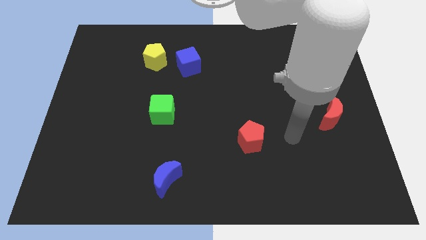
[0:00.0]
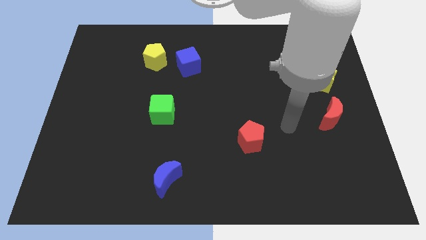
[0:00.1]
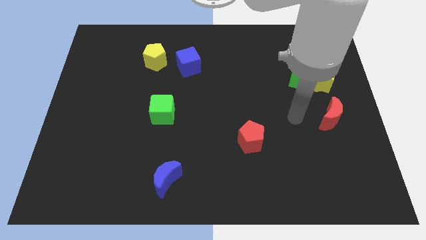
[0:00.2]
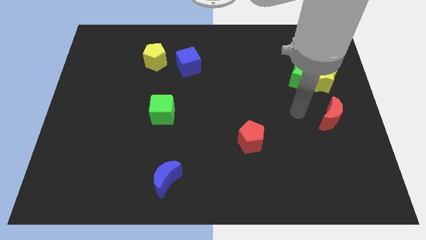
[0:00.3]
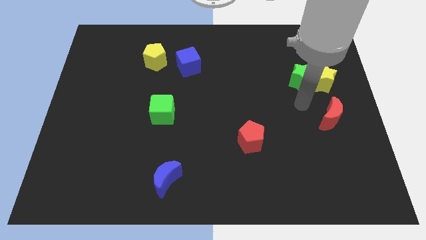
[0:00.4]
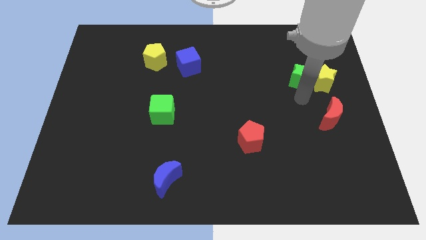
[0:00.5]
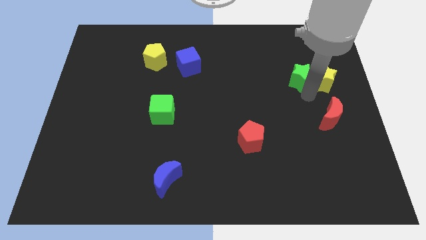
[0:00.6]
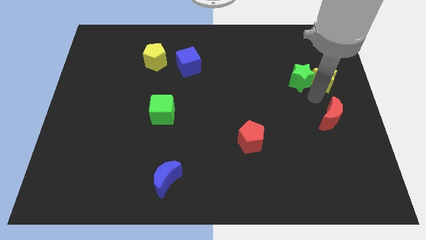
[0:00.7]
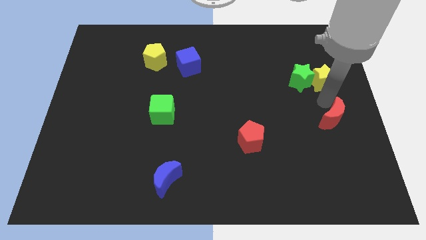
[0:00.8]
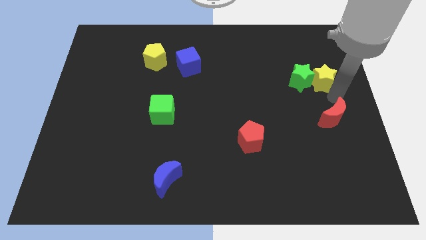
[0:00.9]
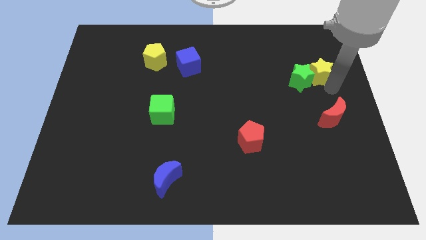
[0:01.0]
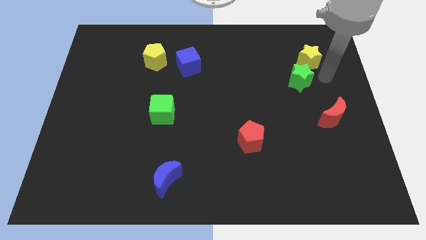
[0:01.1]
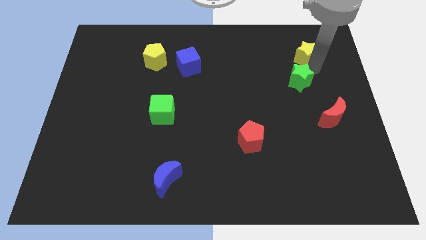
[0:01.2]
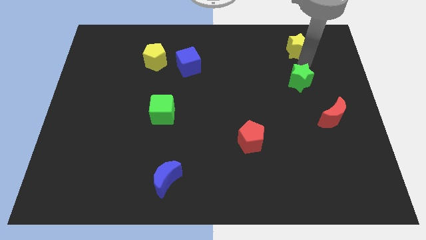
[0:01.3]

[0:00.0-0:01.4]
separate the green star from the yellow star

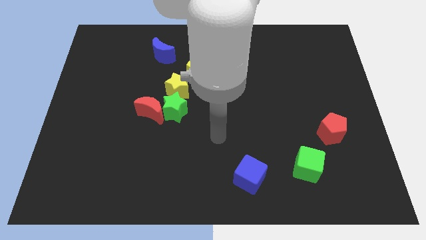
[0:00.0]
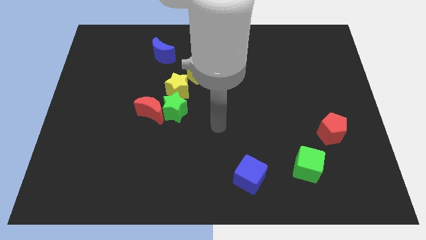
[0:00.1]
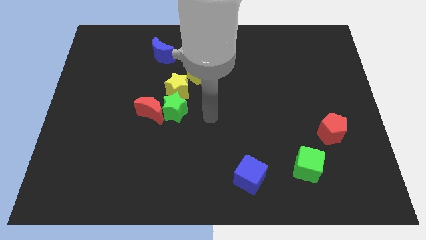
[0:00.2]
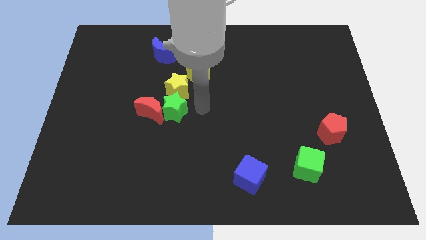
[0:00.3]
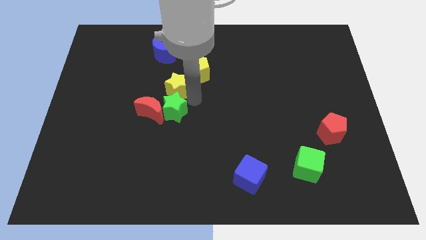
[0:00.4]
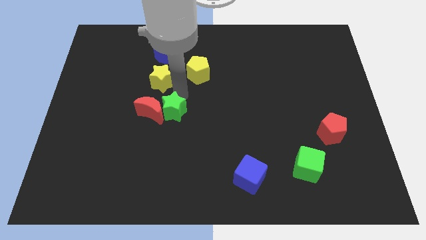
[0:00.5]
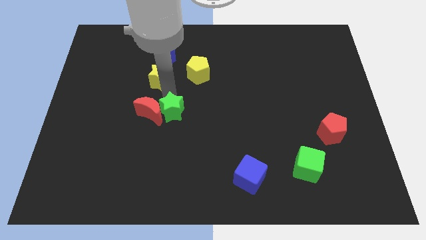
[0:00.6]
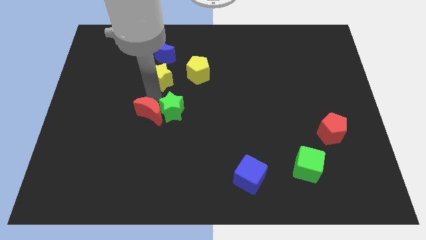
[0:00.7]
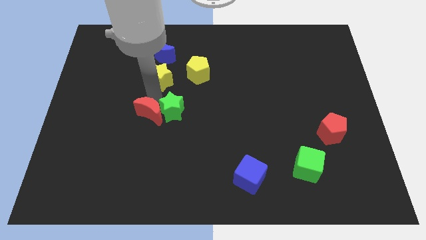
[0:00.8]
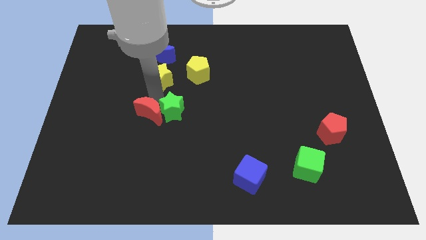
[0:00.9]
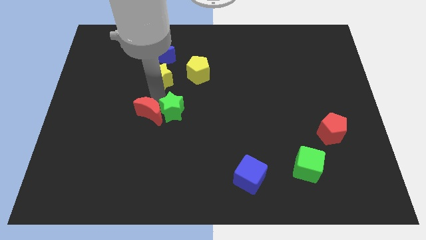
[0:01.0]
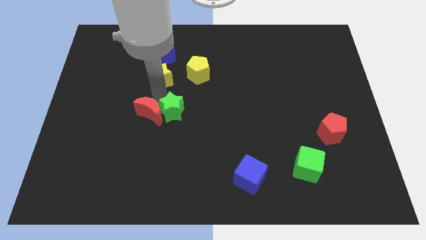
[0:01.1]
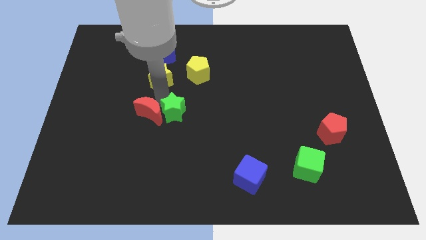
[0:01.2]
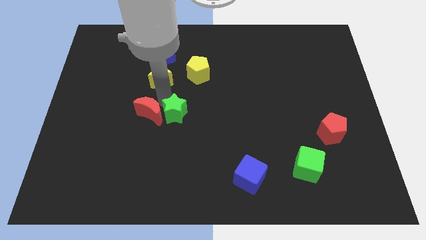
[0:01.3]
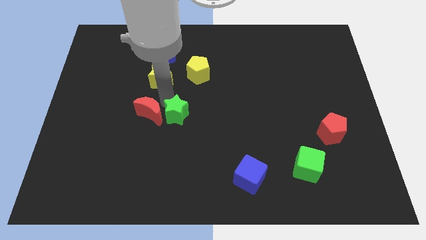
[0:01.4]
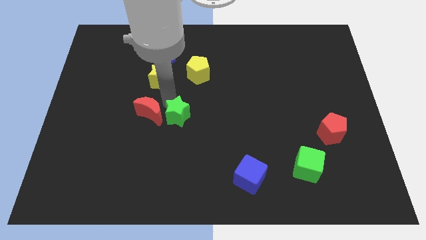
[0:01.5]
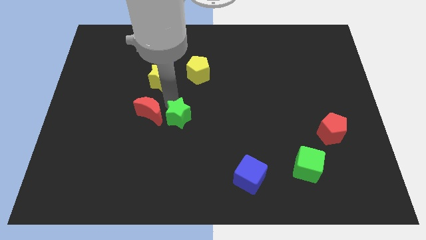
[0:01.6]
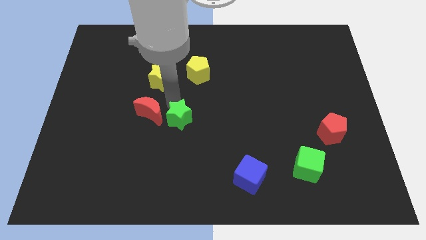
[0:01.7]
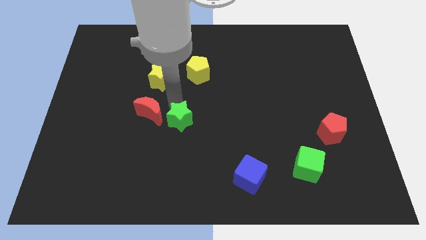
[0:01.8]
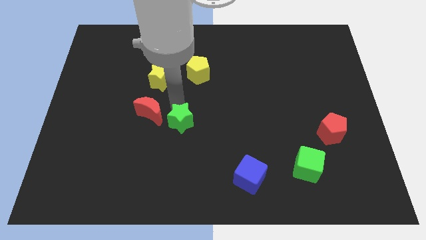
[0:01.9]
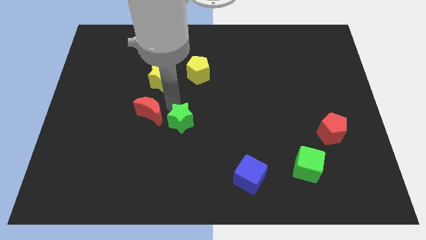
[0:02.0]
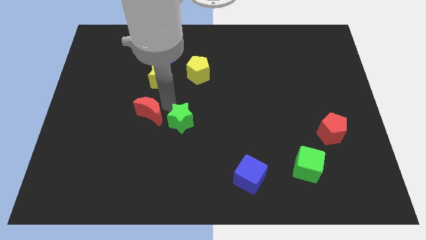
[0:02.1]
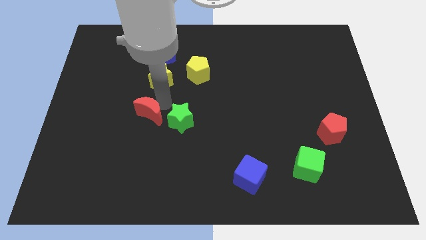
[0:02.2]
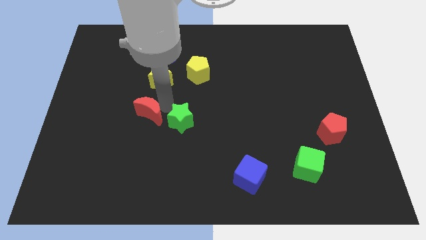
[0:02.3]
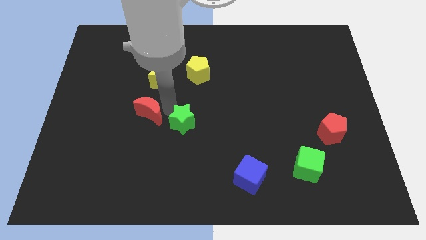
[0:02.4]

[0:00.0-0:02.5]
pull the green star apart from the red moon and yellow star

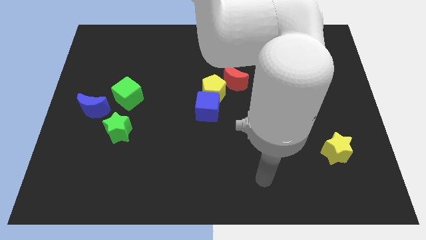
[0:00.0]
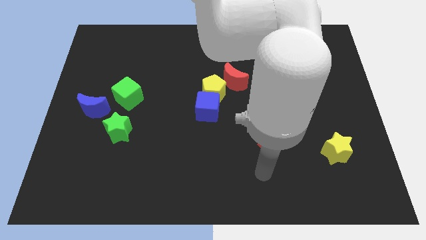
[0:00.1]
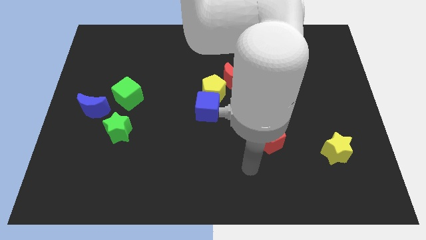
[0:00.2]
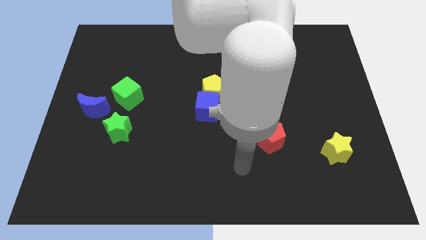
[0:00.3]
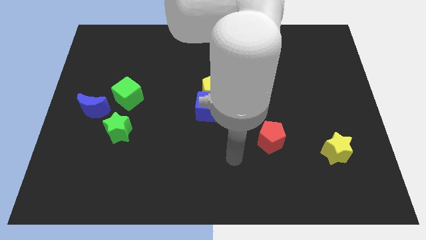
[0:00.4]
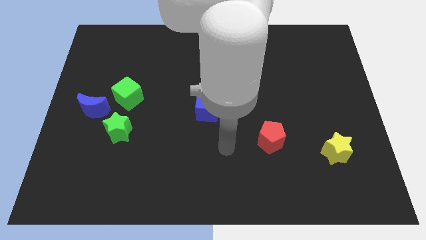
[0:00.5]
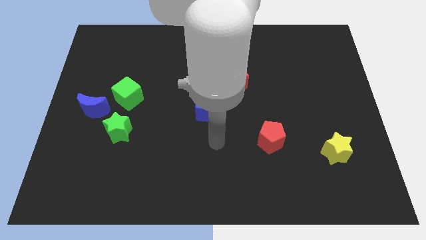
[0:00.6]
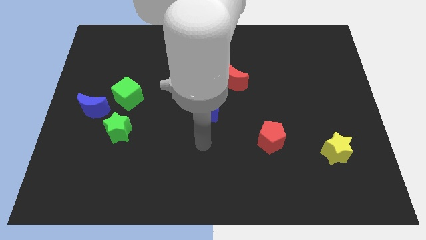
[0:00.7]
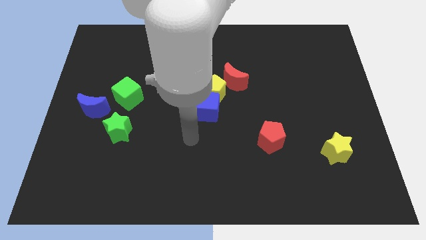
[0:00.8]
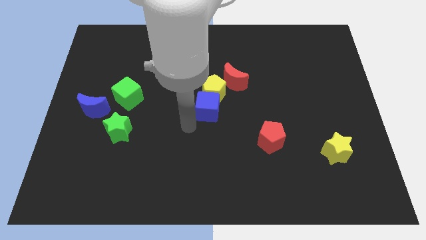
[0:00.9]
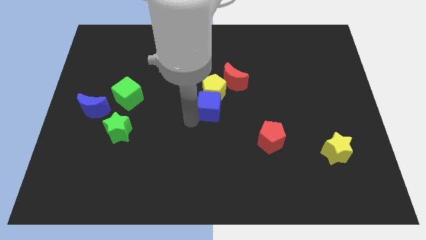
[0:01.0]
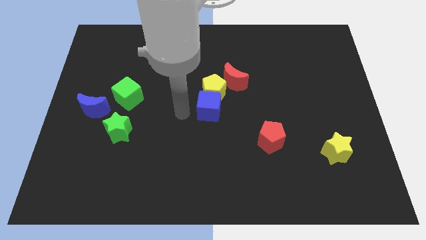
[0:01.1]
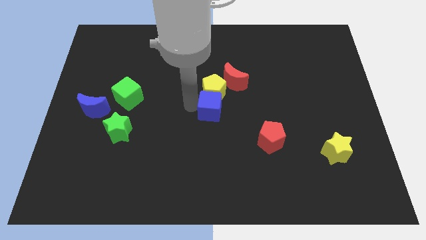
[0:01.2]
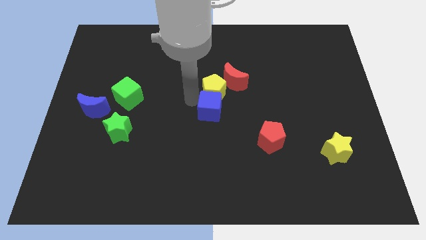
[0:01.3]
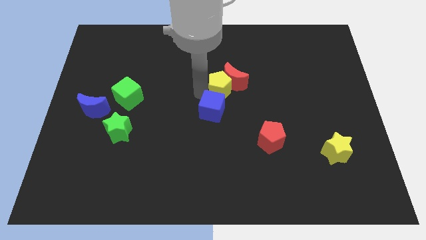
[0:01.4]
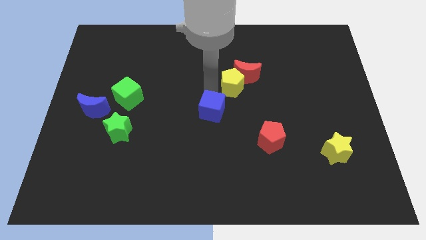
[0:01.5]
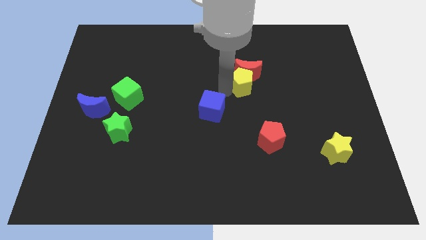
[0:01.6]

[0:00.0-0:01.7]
pull the blue cube apart from the yellow pentagon

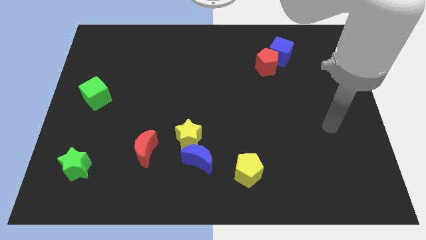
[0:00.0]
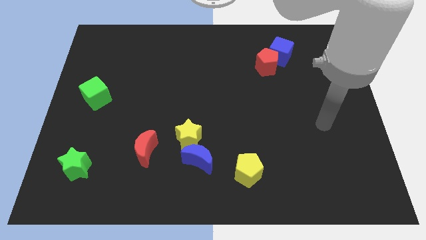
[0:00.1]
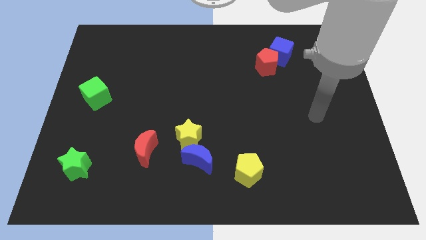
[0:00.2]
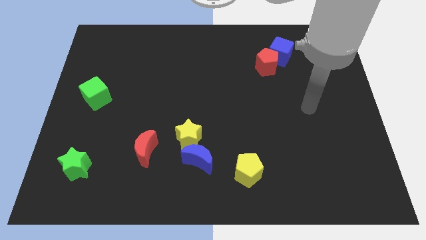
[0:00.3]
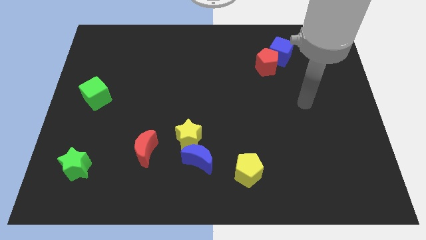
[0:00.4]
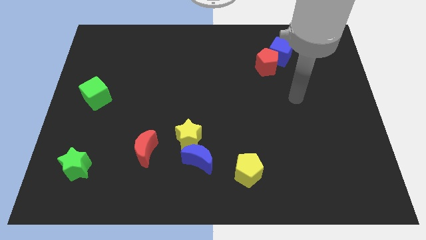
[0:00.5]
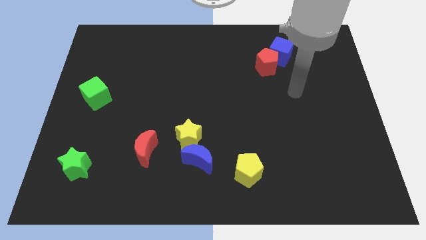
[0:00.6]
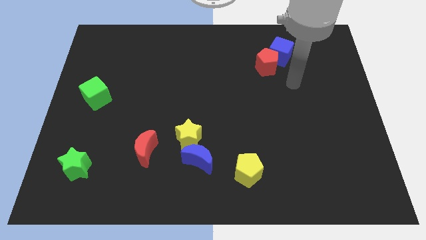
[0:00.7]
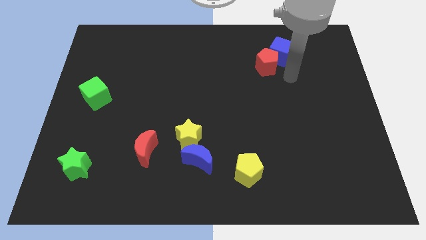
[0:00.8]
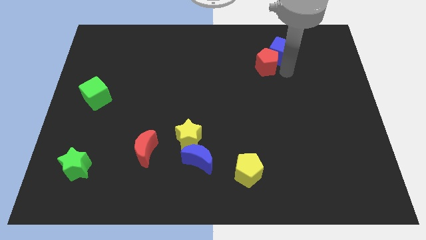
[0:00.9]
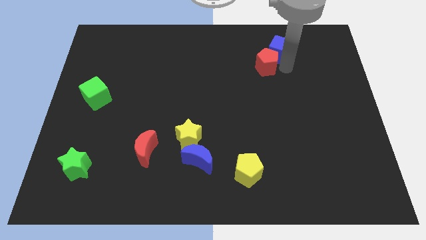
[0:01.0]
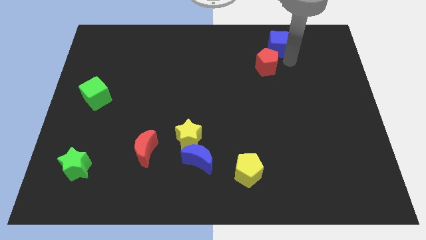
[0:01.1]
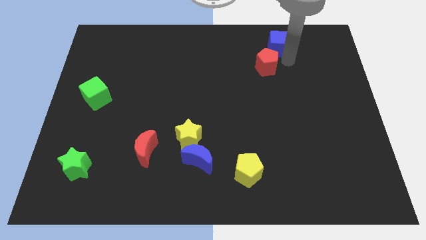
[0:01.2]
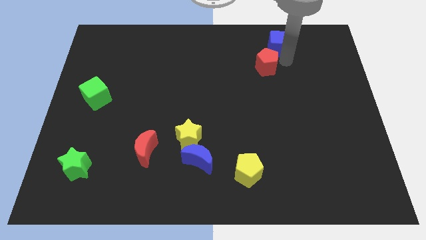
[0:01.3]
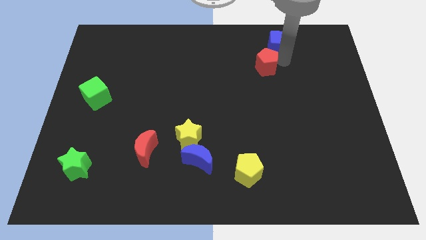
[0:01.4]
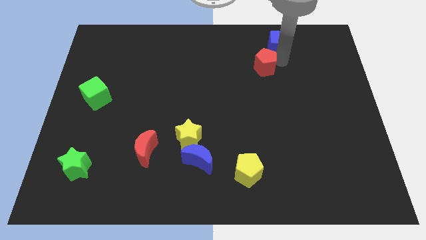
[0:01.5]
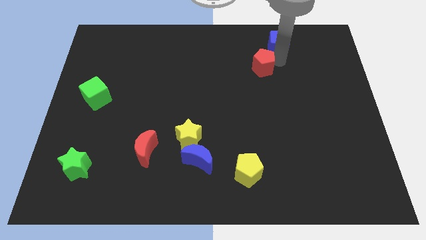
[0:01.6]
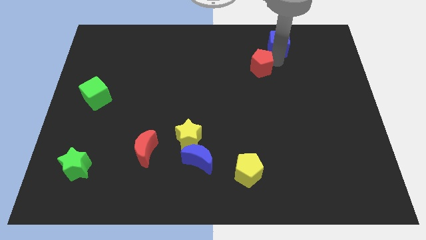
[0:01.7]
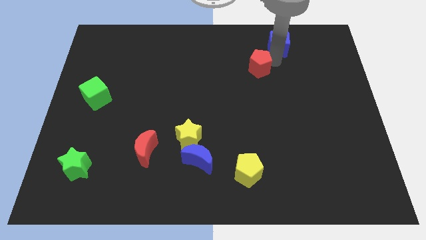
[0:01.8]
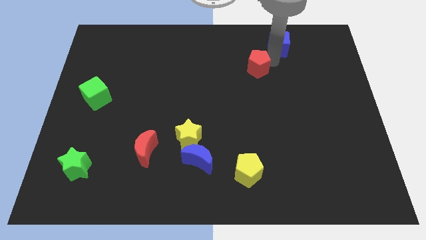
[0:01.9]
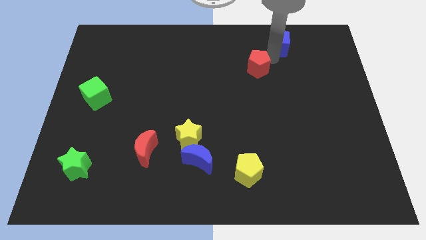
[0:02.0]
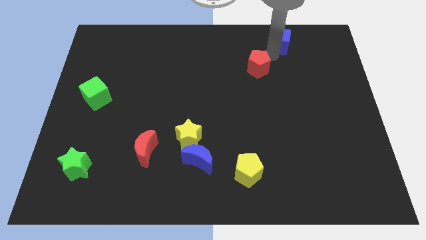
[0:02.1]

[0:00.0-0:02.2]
separate the red pentagon from the blue cube

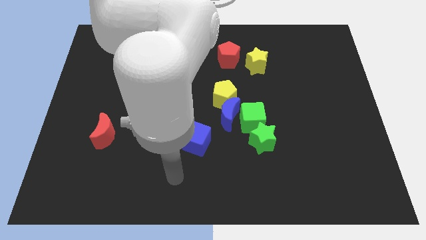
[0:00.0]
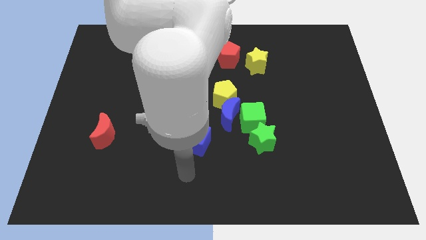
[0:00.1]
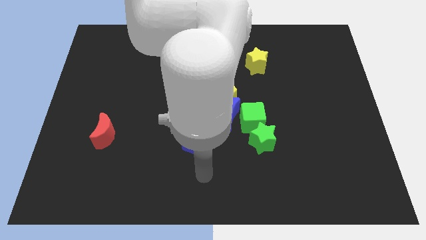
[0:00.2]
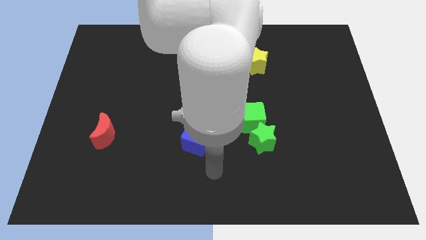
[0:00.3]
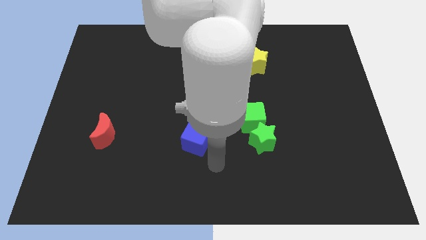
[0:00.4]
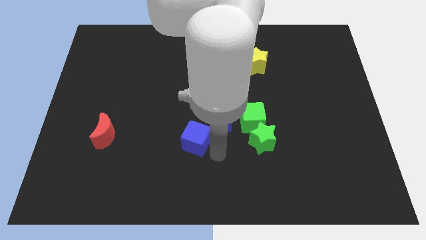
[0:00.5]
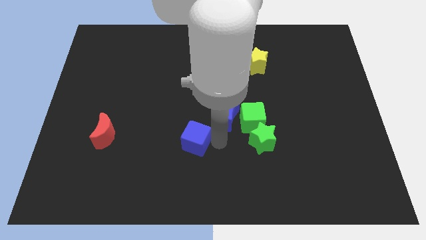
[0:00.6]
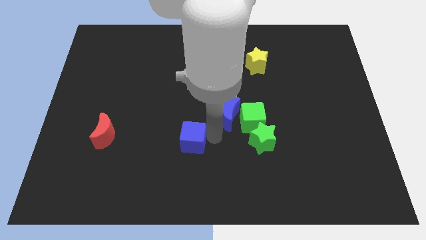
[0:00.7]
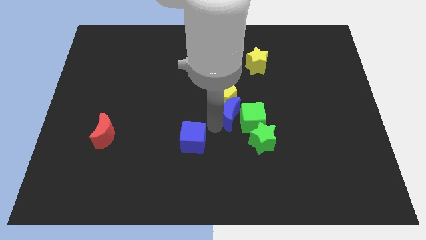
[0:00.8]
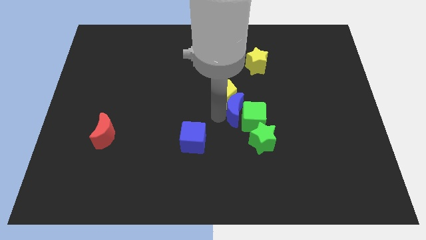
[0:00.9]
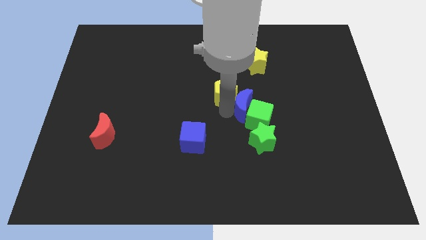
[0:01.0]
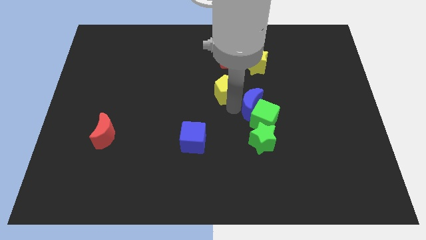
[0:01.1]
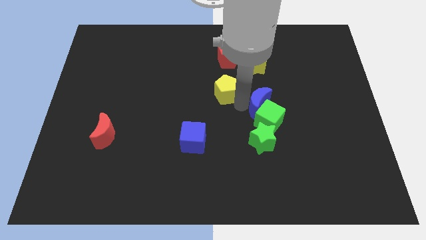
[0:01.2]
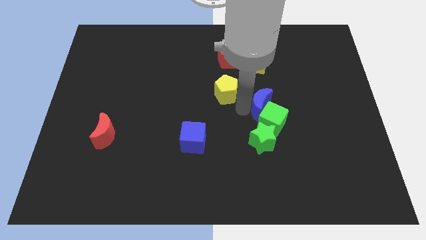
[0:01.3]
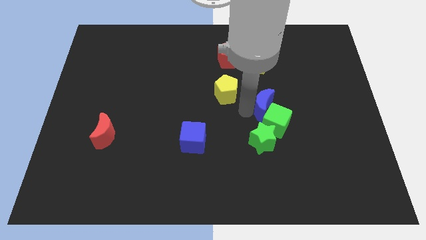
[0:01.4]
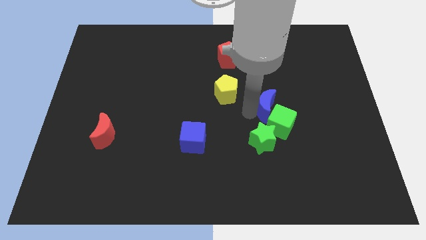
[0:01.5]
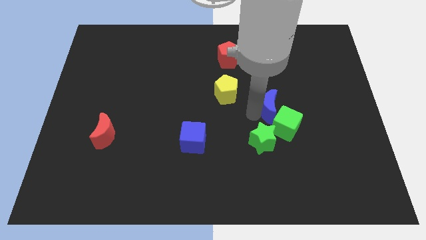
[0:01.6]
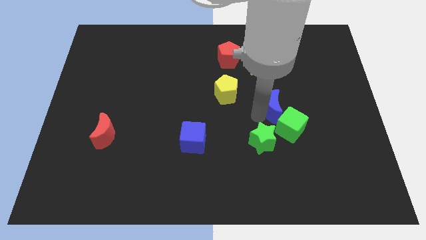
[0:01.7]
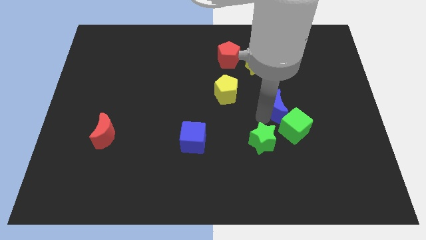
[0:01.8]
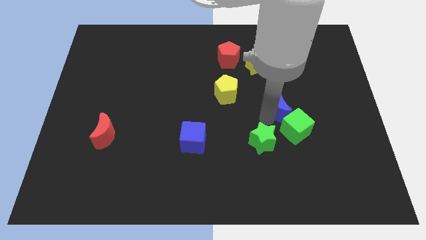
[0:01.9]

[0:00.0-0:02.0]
separate the green cube from the blue moon, green star, and yellow pentagon
